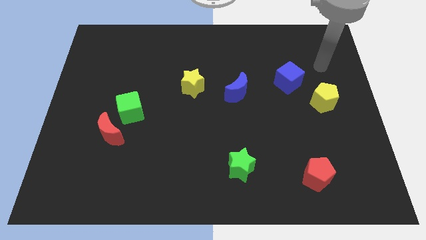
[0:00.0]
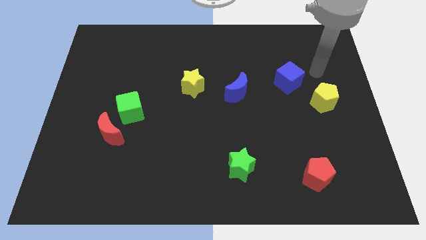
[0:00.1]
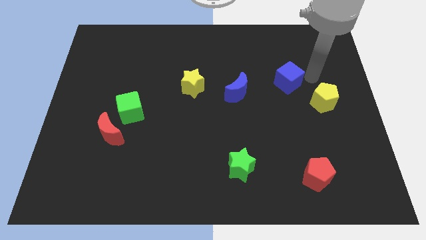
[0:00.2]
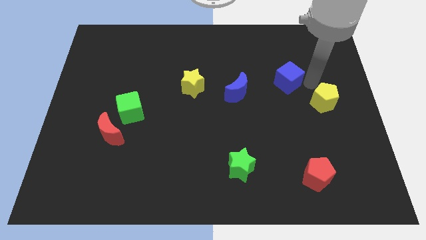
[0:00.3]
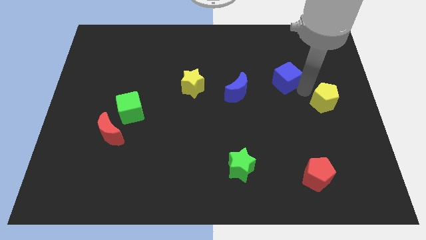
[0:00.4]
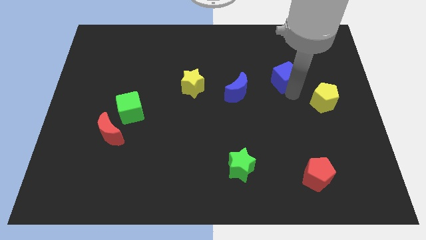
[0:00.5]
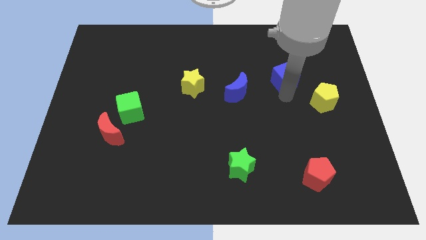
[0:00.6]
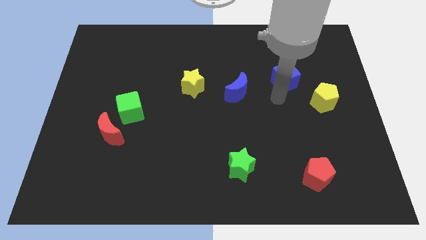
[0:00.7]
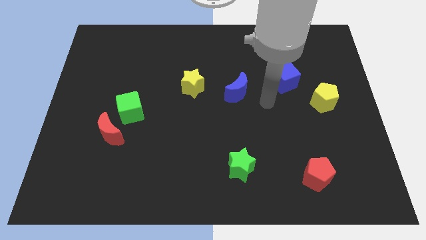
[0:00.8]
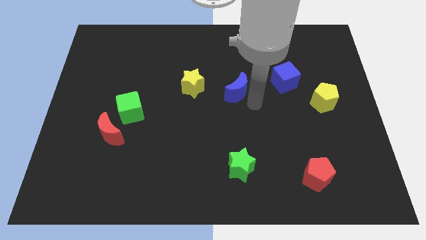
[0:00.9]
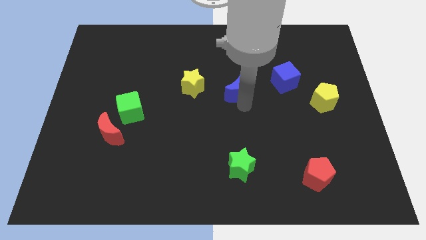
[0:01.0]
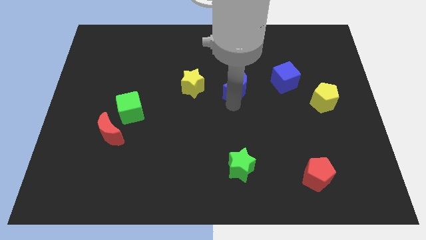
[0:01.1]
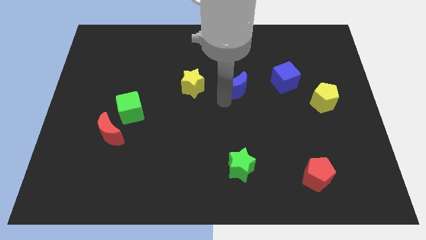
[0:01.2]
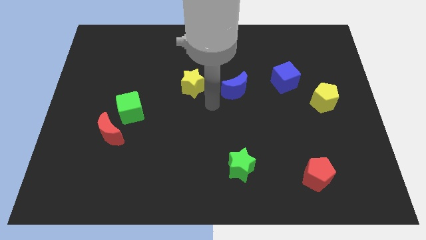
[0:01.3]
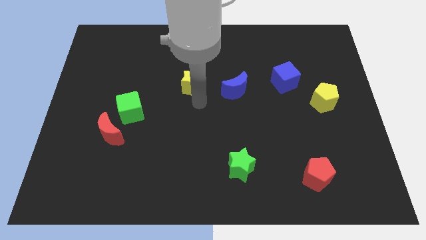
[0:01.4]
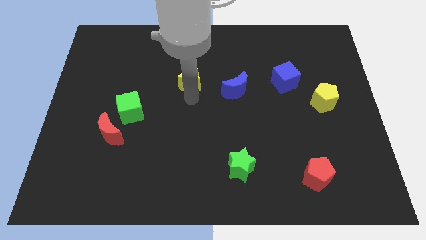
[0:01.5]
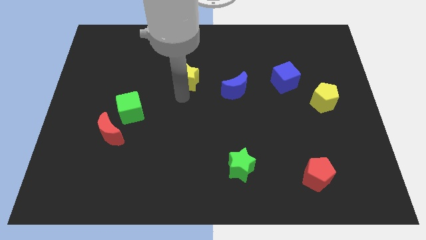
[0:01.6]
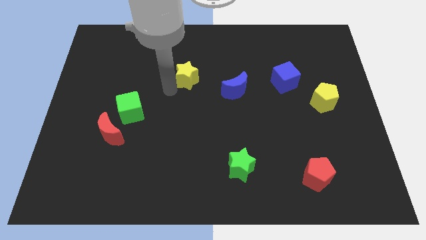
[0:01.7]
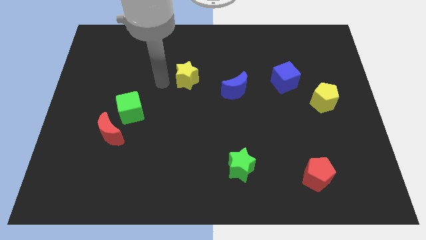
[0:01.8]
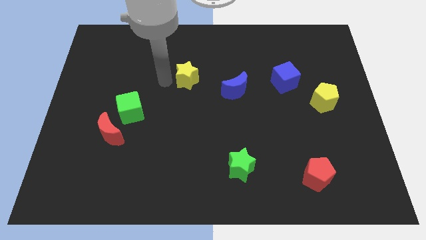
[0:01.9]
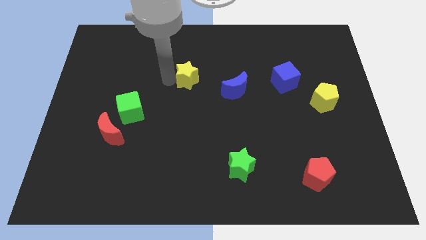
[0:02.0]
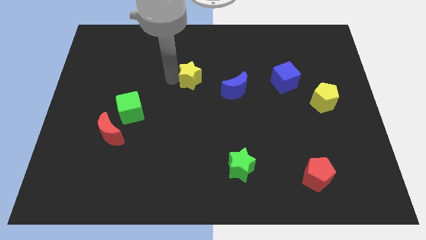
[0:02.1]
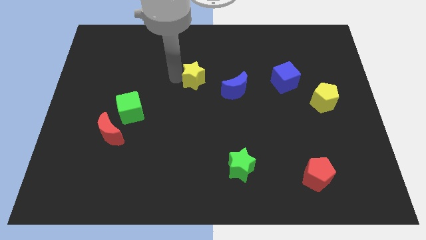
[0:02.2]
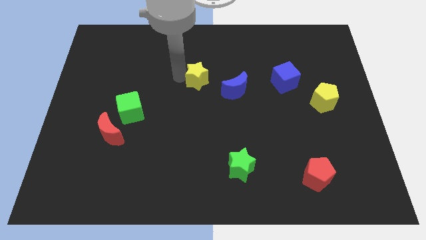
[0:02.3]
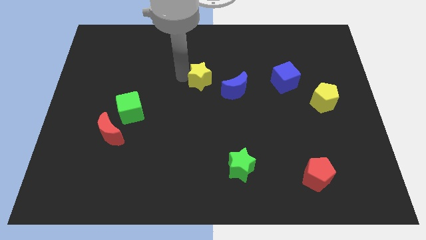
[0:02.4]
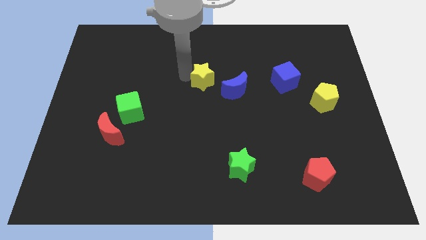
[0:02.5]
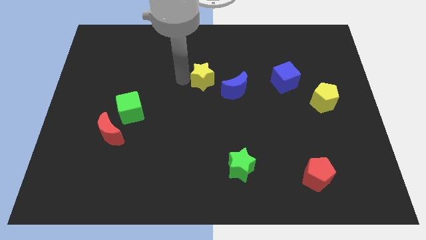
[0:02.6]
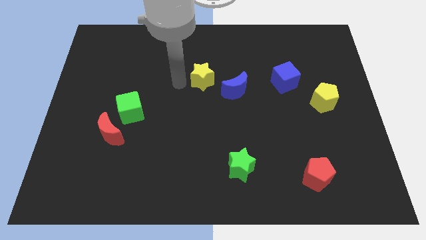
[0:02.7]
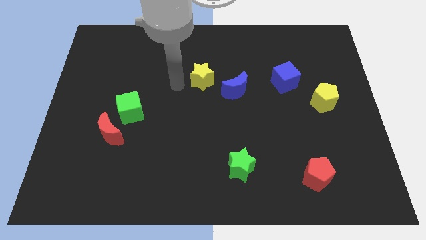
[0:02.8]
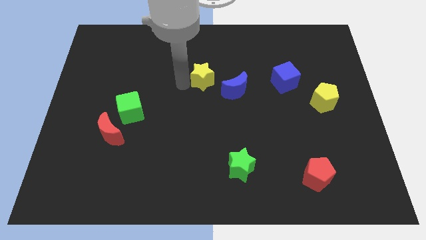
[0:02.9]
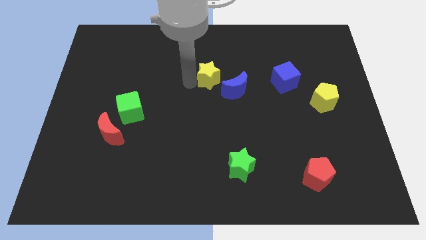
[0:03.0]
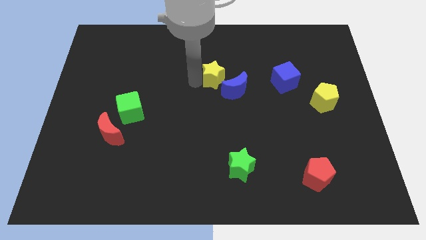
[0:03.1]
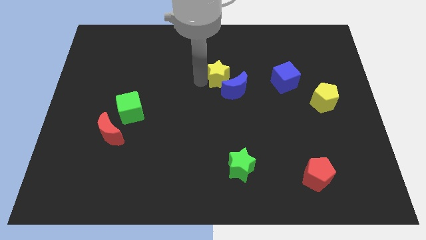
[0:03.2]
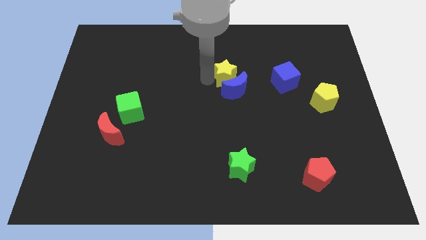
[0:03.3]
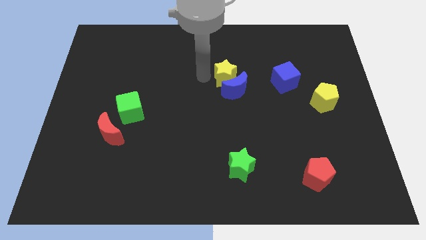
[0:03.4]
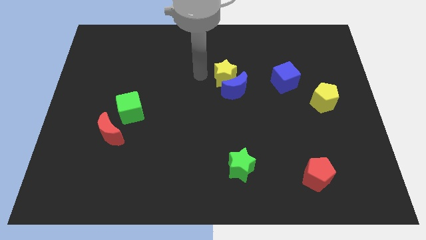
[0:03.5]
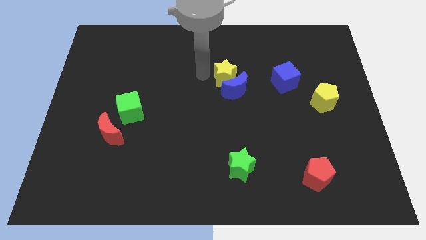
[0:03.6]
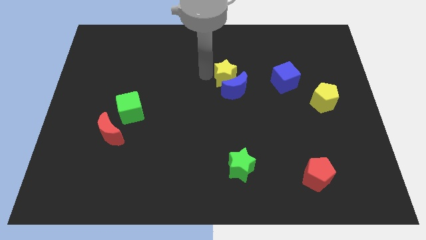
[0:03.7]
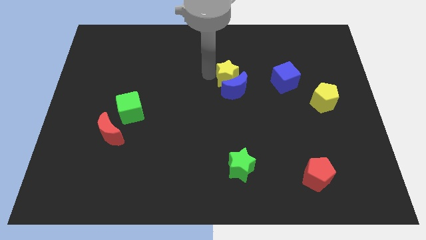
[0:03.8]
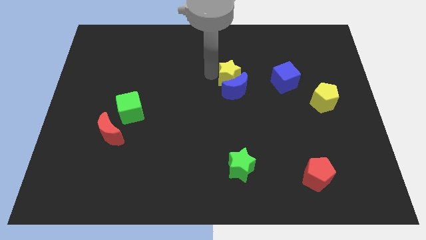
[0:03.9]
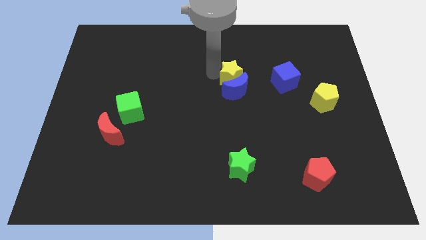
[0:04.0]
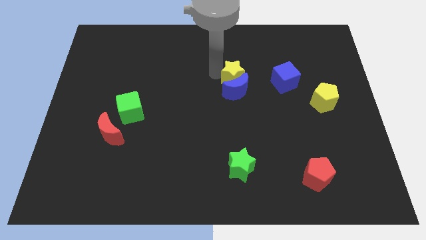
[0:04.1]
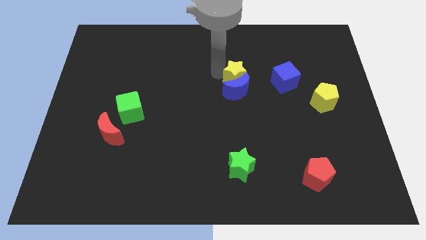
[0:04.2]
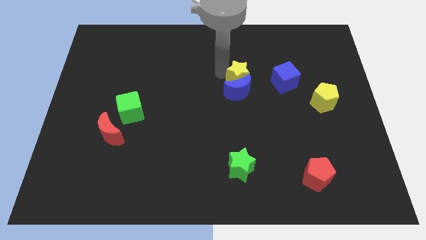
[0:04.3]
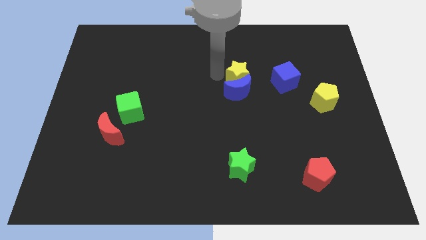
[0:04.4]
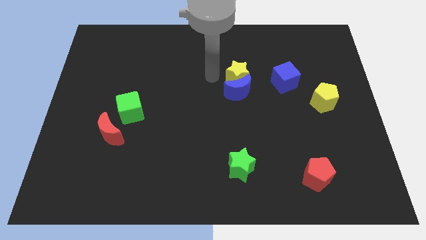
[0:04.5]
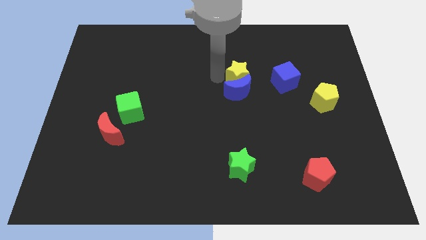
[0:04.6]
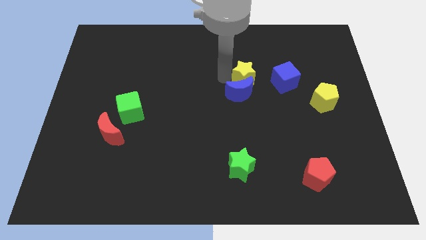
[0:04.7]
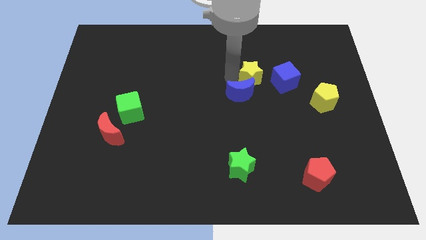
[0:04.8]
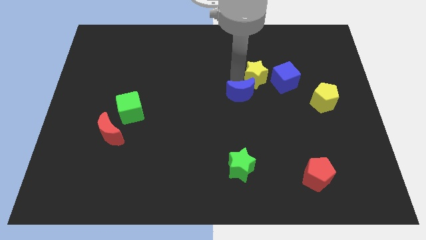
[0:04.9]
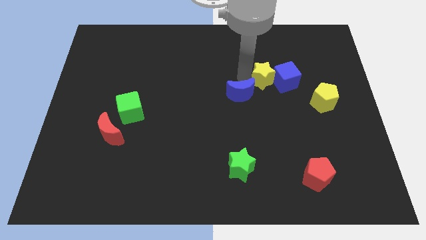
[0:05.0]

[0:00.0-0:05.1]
put the yellow star next to the blue cube

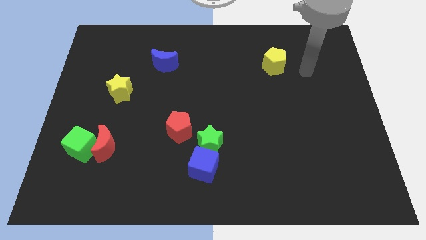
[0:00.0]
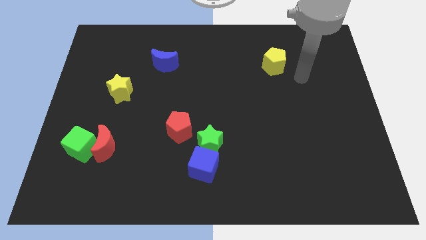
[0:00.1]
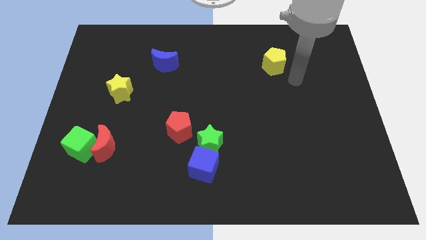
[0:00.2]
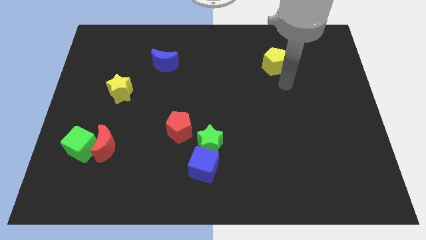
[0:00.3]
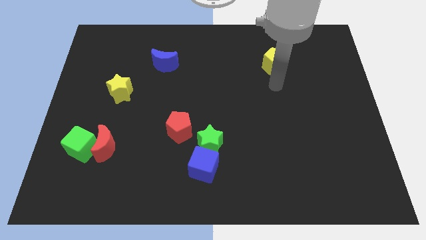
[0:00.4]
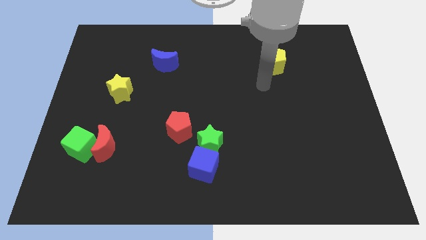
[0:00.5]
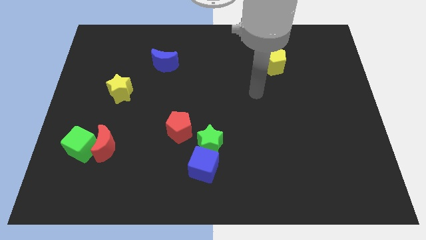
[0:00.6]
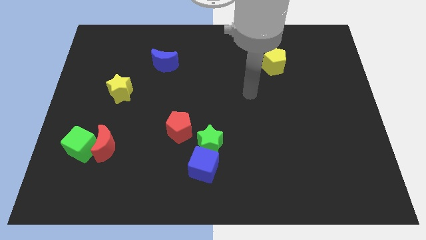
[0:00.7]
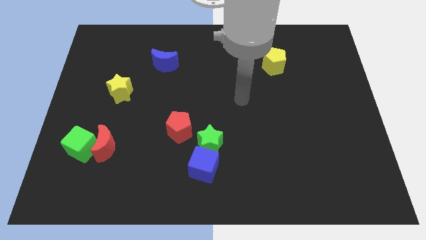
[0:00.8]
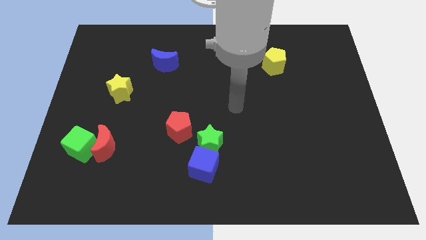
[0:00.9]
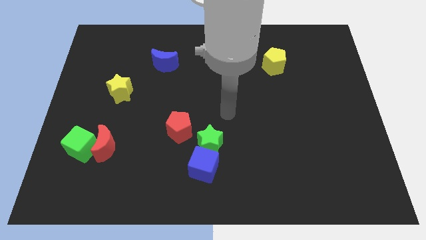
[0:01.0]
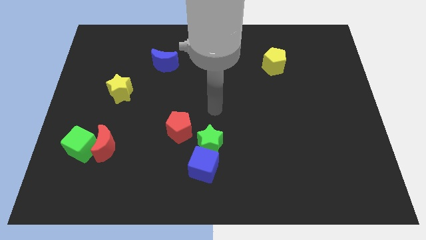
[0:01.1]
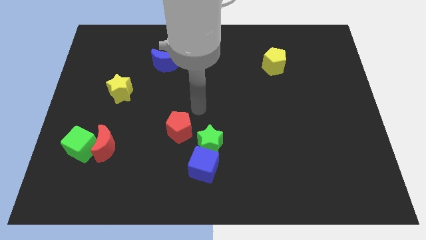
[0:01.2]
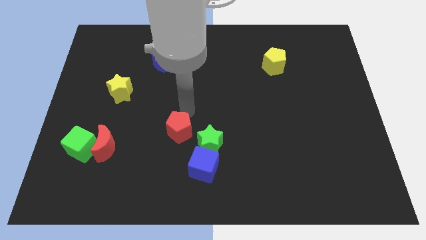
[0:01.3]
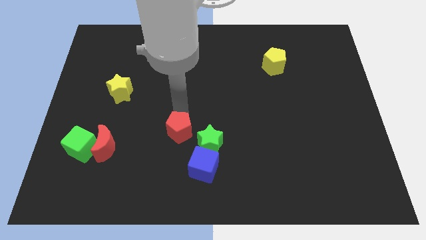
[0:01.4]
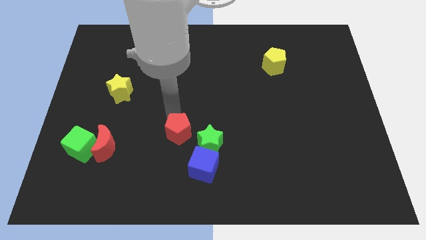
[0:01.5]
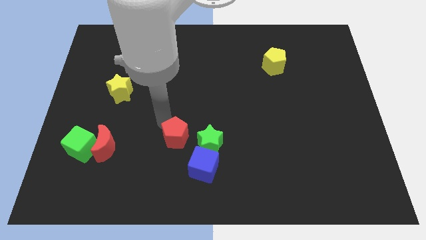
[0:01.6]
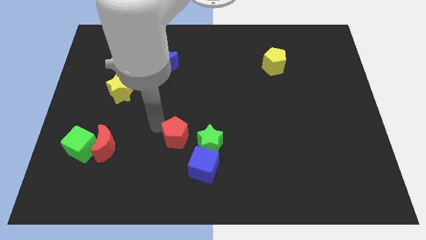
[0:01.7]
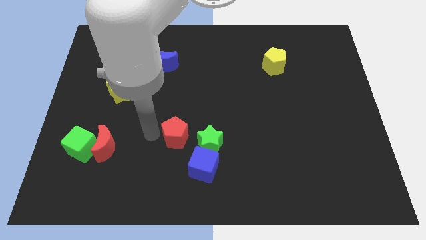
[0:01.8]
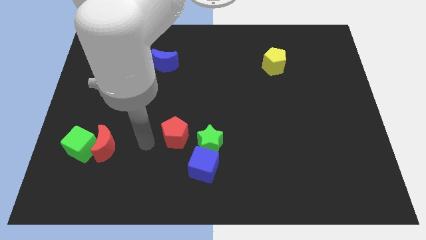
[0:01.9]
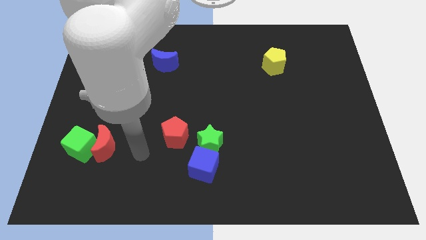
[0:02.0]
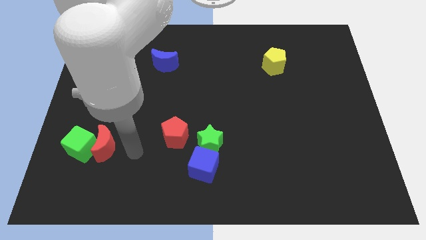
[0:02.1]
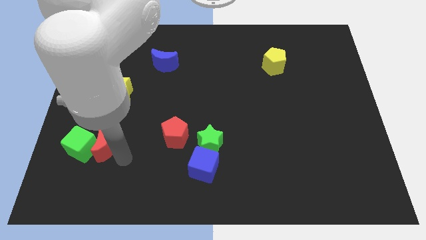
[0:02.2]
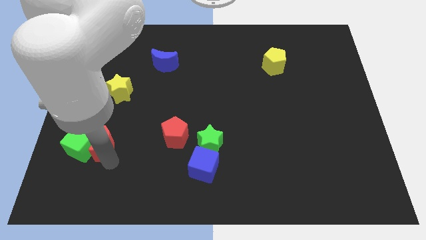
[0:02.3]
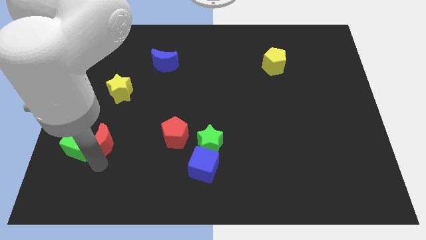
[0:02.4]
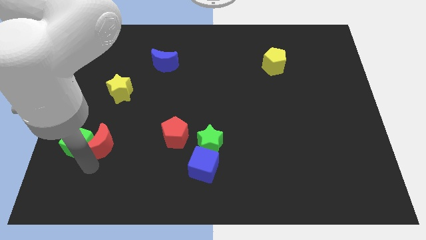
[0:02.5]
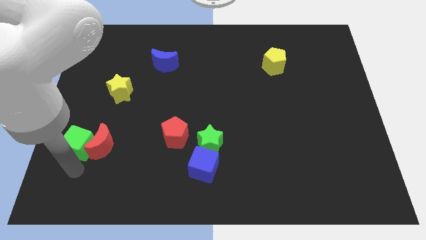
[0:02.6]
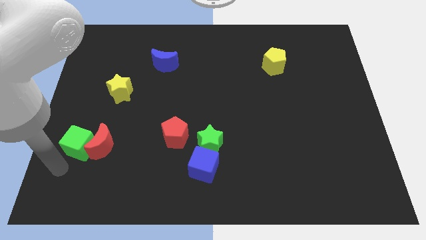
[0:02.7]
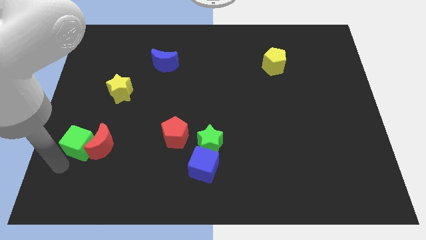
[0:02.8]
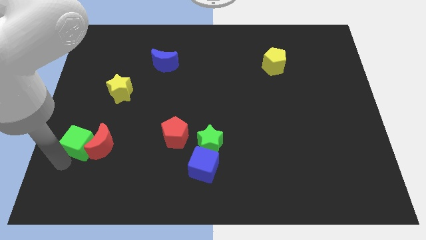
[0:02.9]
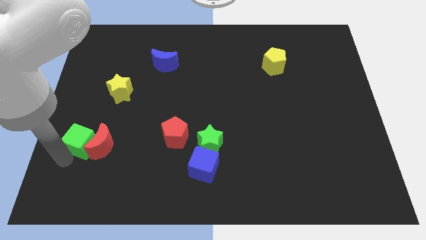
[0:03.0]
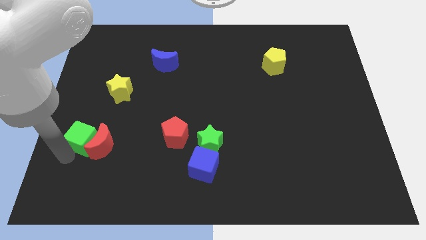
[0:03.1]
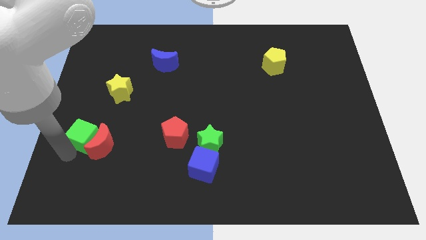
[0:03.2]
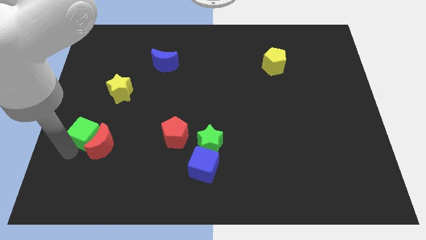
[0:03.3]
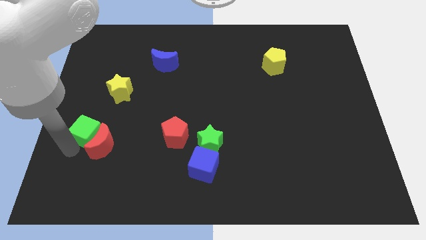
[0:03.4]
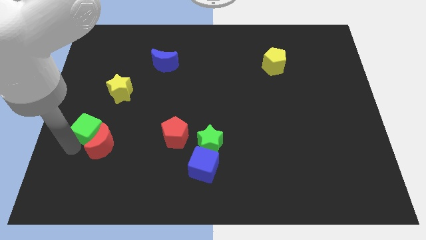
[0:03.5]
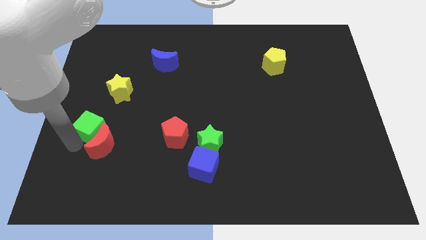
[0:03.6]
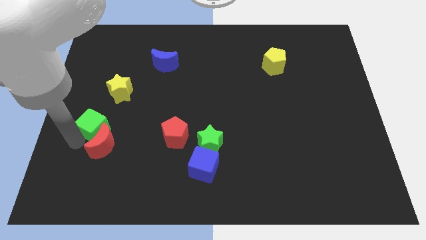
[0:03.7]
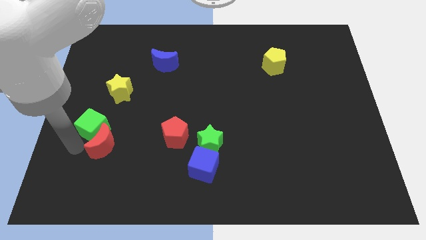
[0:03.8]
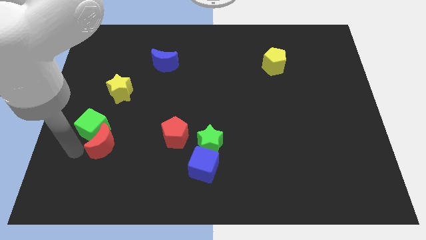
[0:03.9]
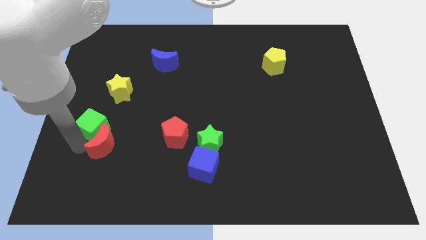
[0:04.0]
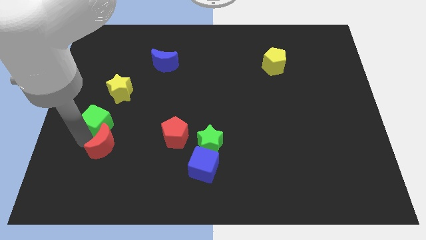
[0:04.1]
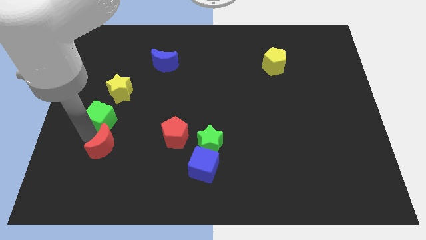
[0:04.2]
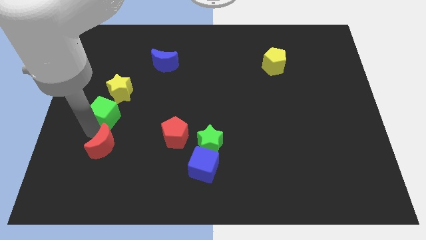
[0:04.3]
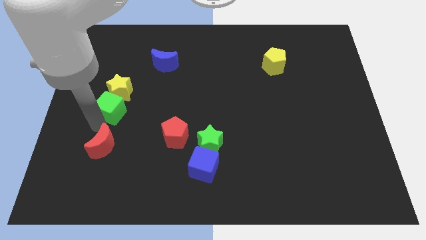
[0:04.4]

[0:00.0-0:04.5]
put the green cube towards the yellow star
